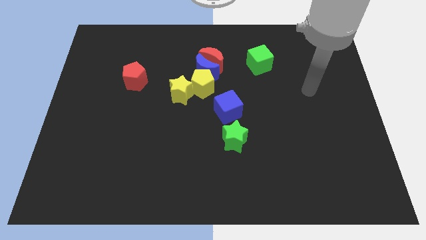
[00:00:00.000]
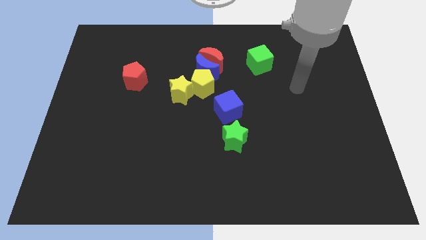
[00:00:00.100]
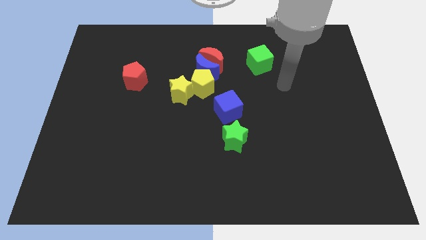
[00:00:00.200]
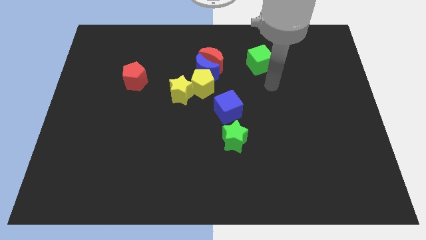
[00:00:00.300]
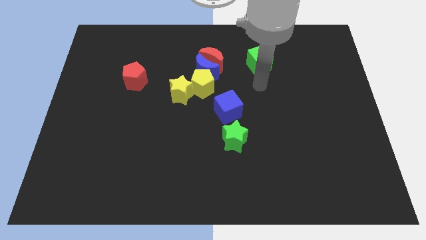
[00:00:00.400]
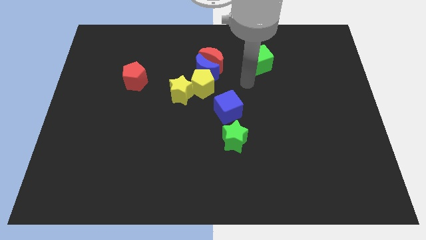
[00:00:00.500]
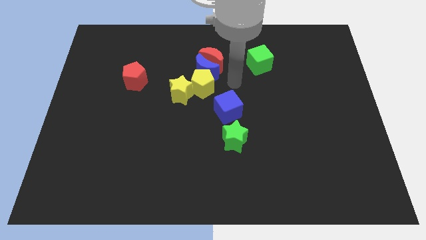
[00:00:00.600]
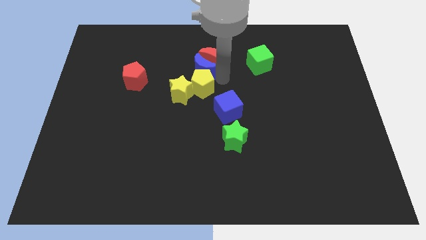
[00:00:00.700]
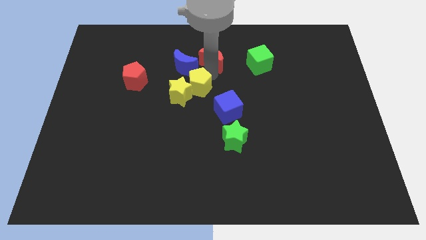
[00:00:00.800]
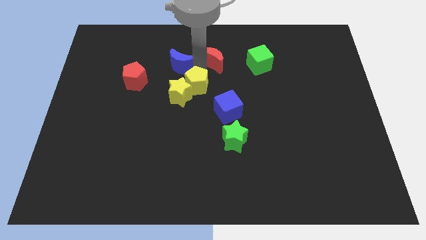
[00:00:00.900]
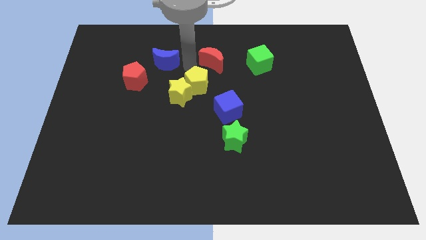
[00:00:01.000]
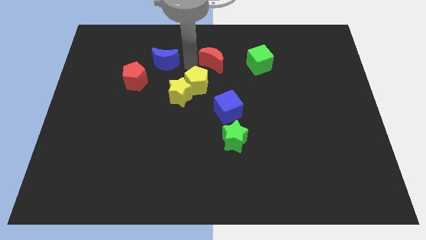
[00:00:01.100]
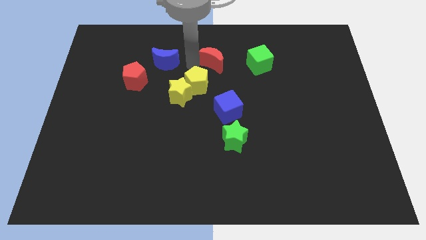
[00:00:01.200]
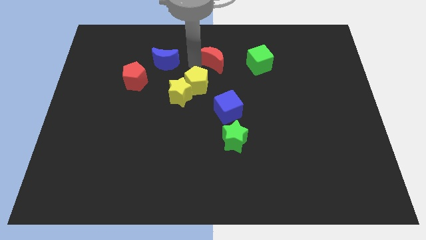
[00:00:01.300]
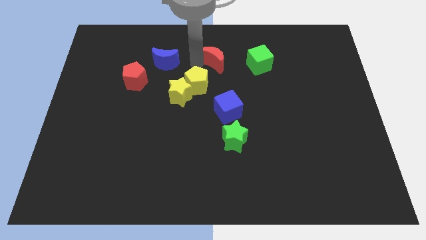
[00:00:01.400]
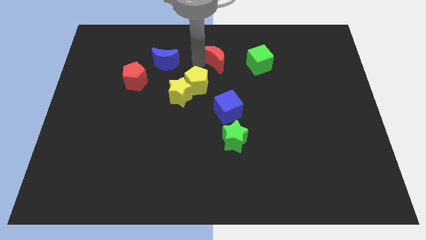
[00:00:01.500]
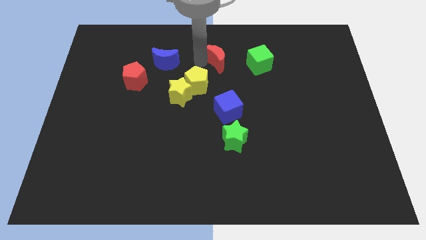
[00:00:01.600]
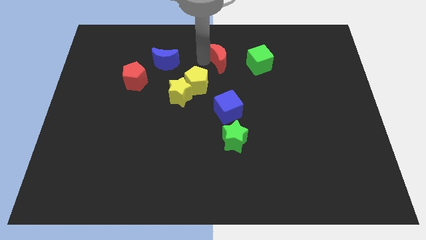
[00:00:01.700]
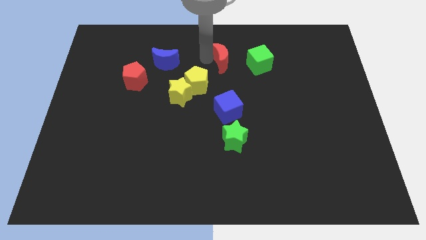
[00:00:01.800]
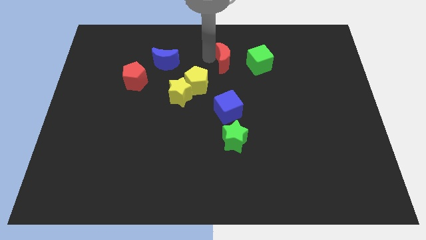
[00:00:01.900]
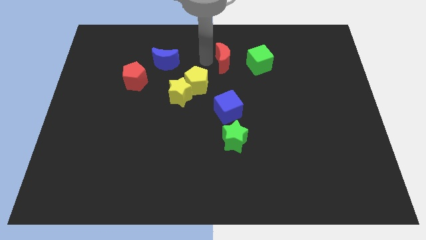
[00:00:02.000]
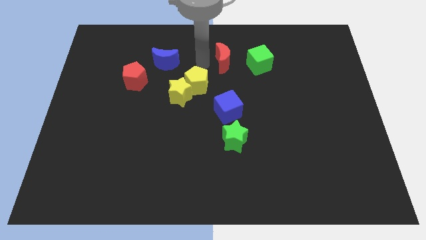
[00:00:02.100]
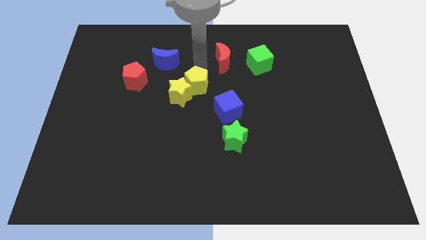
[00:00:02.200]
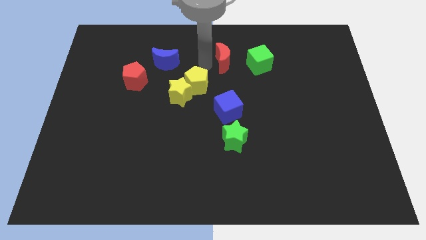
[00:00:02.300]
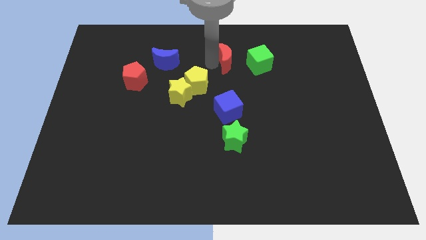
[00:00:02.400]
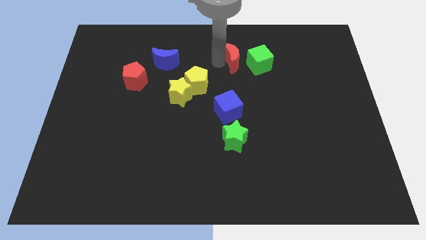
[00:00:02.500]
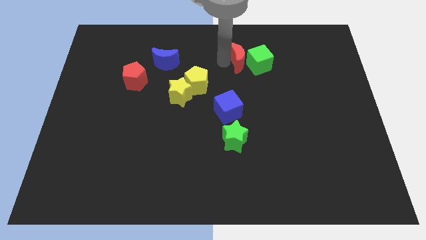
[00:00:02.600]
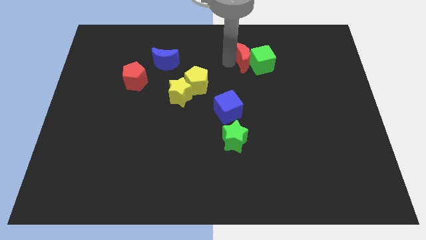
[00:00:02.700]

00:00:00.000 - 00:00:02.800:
slightly push the red moon right

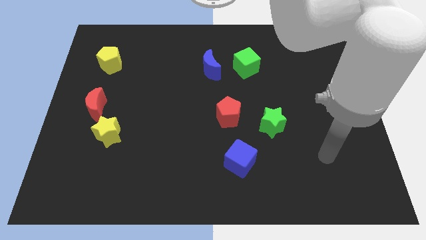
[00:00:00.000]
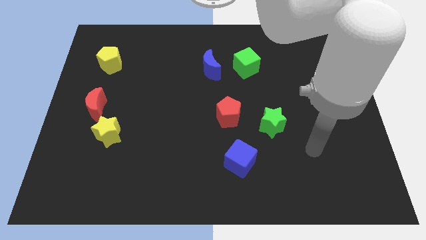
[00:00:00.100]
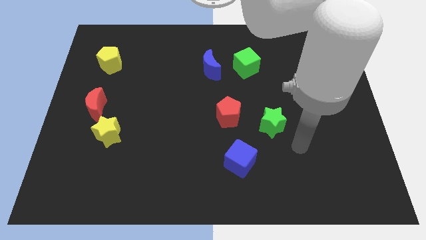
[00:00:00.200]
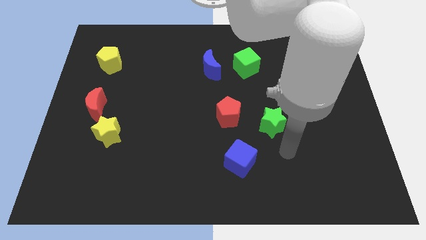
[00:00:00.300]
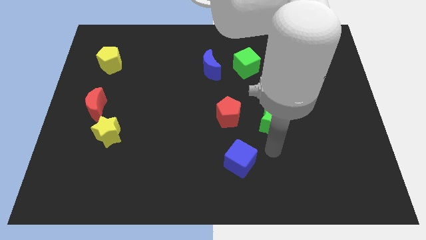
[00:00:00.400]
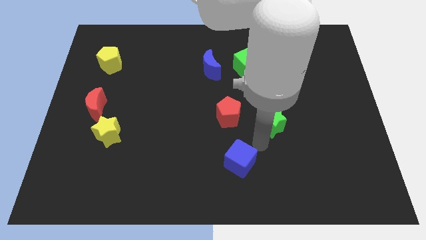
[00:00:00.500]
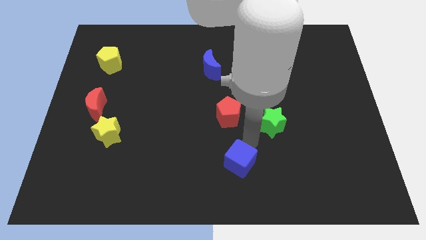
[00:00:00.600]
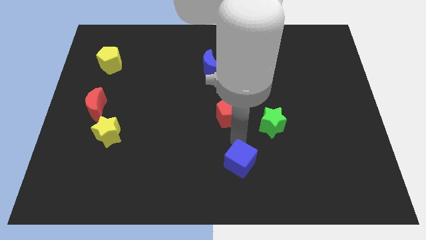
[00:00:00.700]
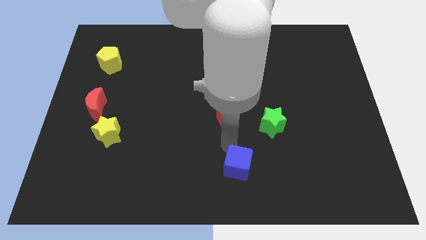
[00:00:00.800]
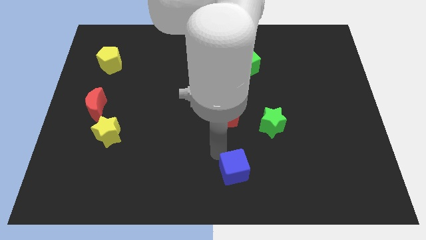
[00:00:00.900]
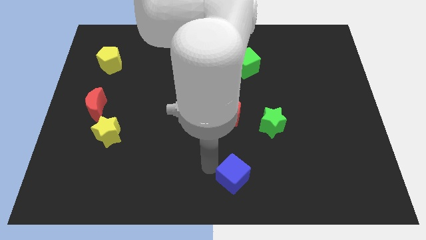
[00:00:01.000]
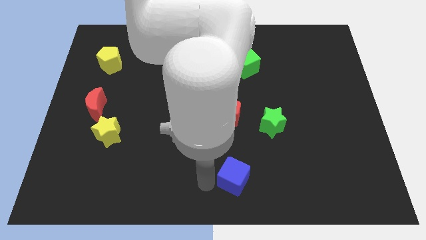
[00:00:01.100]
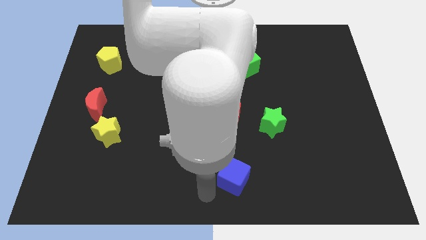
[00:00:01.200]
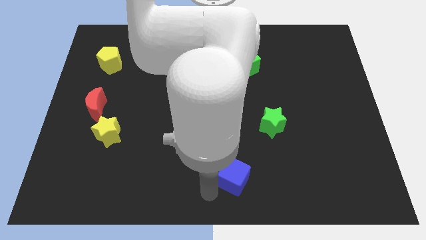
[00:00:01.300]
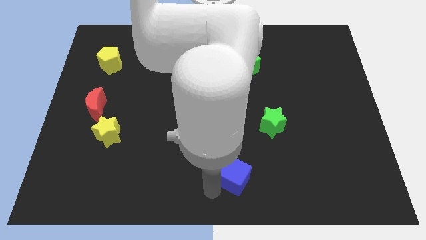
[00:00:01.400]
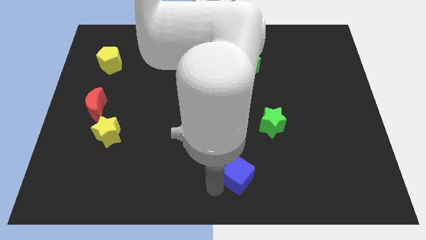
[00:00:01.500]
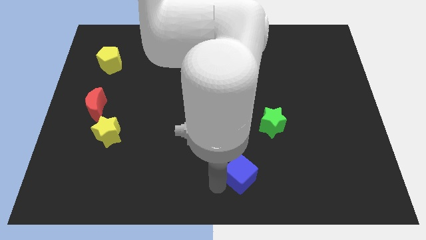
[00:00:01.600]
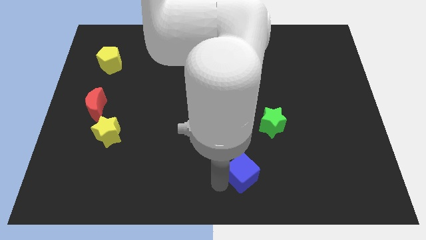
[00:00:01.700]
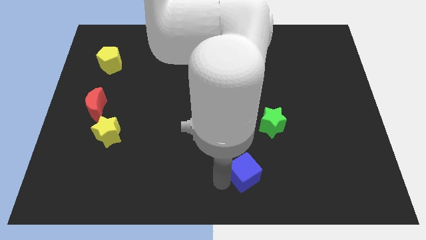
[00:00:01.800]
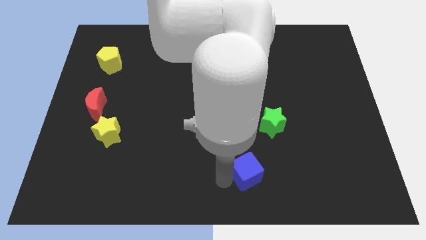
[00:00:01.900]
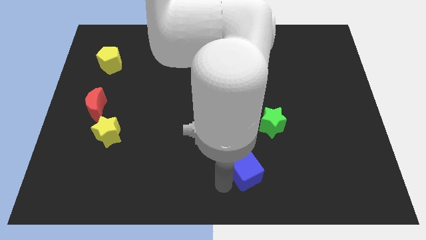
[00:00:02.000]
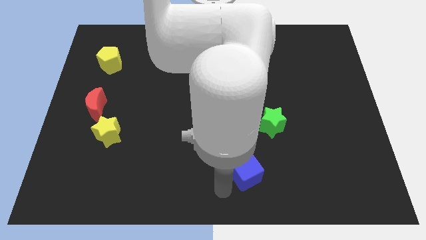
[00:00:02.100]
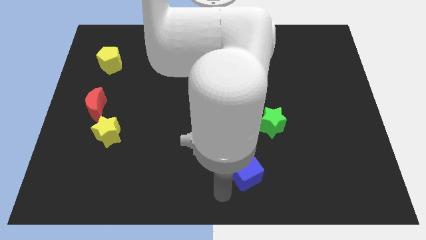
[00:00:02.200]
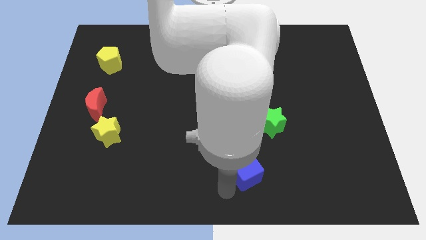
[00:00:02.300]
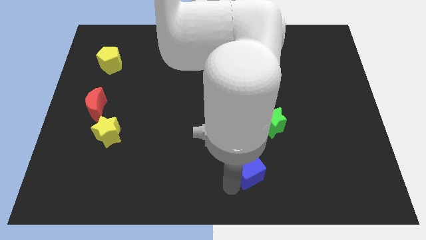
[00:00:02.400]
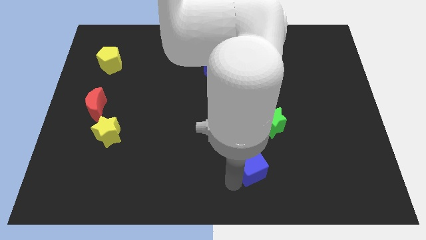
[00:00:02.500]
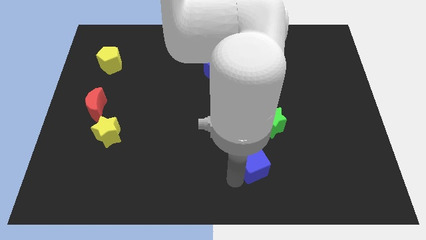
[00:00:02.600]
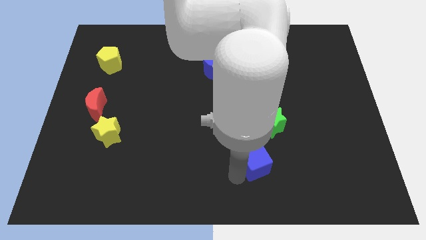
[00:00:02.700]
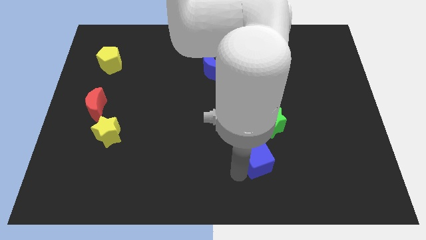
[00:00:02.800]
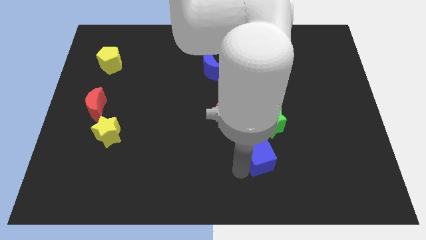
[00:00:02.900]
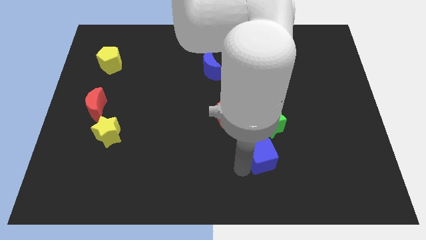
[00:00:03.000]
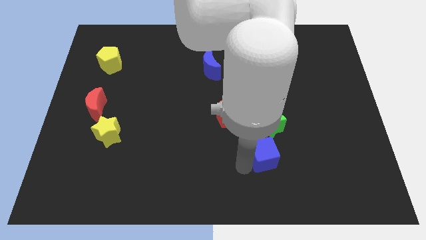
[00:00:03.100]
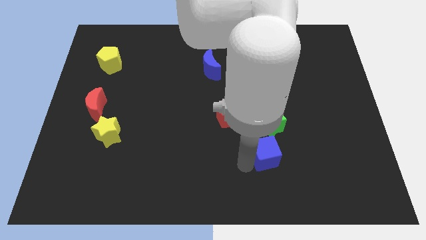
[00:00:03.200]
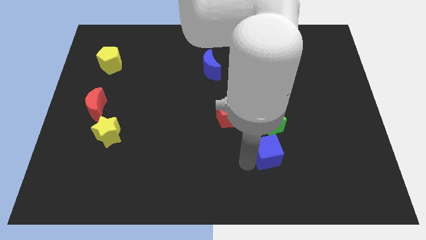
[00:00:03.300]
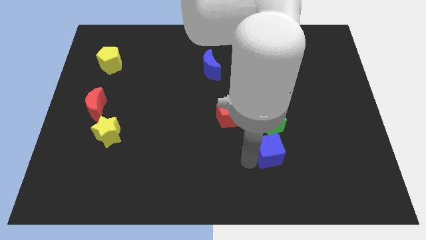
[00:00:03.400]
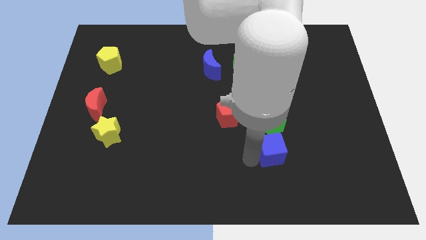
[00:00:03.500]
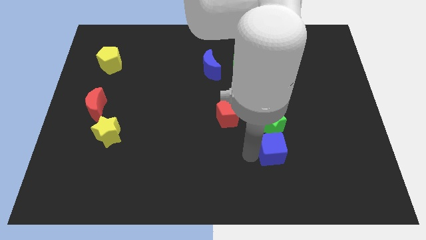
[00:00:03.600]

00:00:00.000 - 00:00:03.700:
move the blue cube to the right a bit

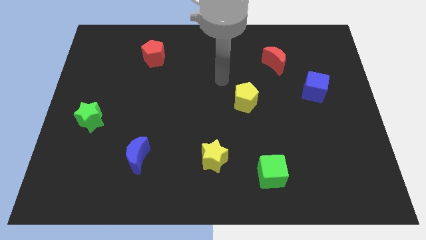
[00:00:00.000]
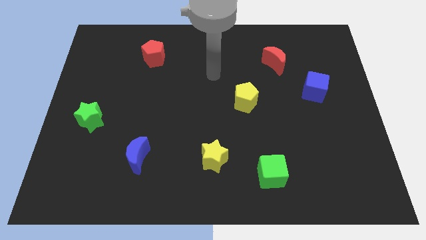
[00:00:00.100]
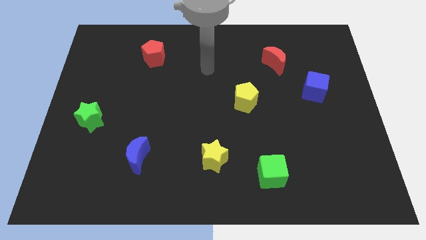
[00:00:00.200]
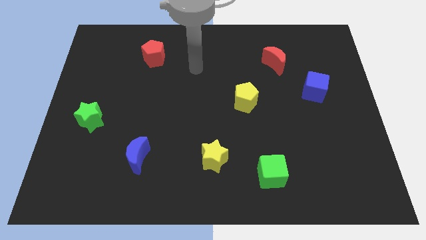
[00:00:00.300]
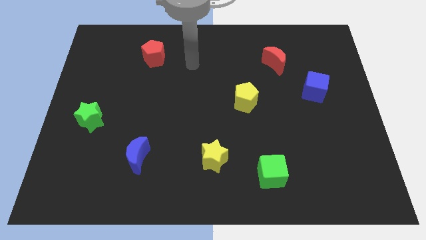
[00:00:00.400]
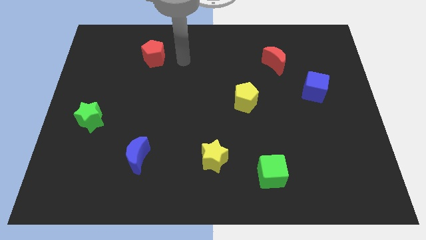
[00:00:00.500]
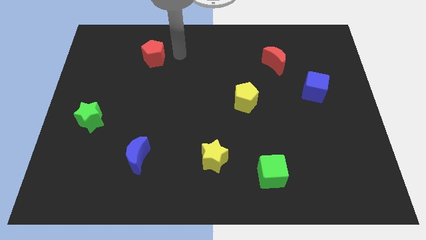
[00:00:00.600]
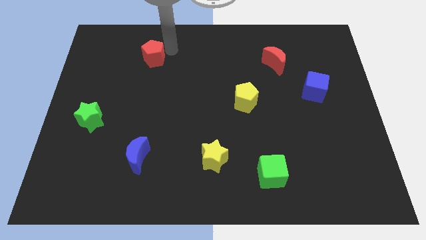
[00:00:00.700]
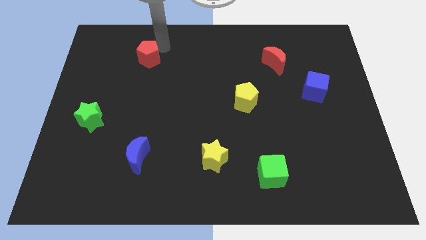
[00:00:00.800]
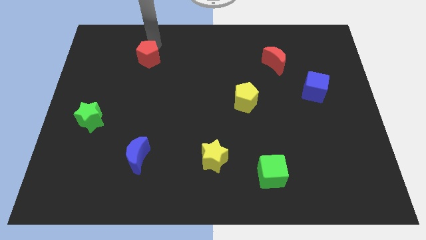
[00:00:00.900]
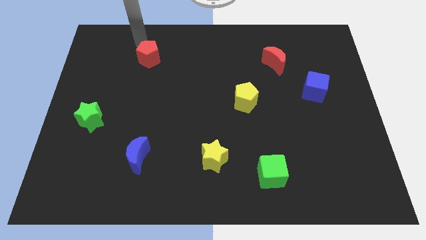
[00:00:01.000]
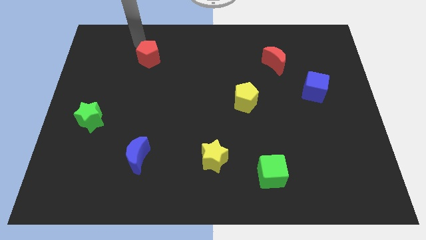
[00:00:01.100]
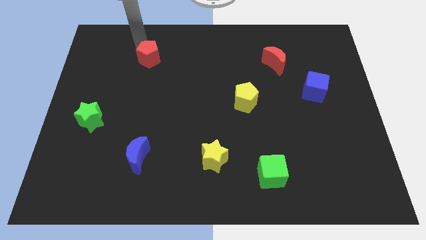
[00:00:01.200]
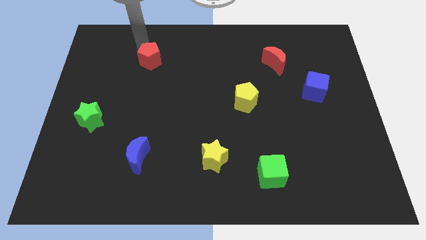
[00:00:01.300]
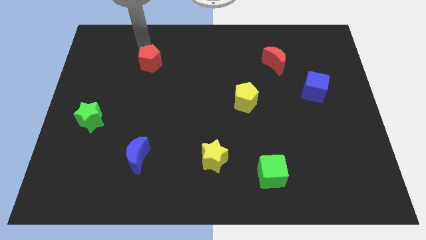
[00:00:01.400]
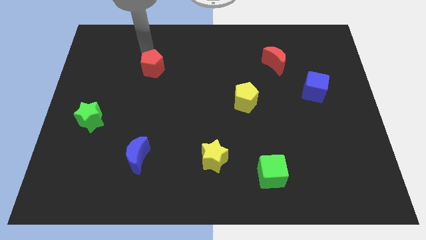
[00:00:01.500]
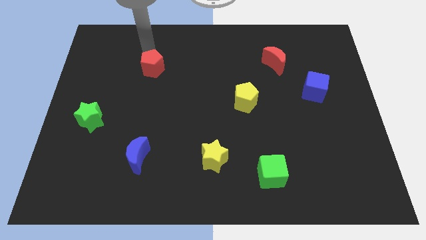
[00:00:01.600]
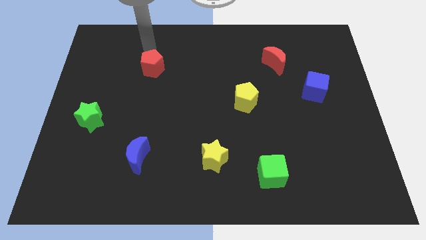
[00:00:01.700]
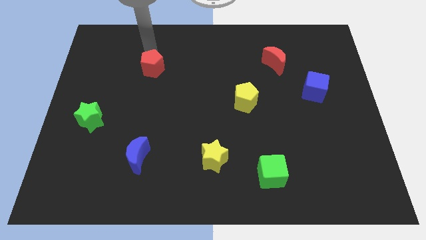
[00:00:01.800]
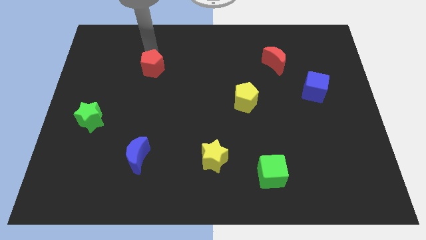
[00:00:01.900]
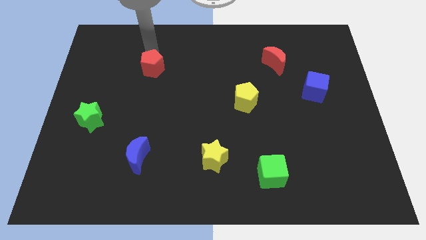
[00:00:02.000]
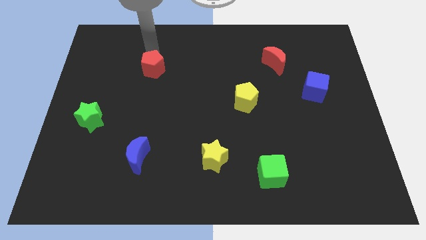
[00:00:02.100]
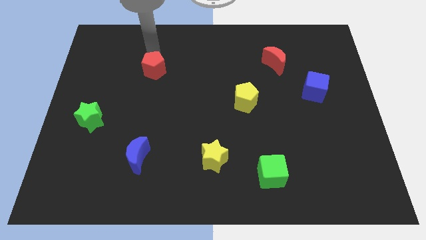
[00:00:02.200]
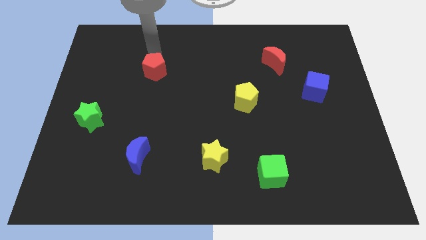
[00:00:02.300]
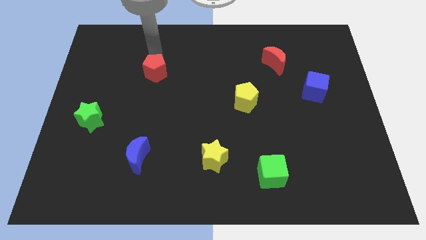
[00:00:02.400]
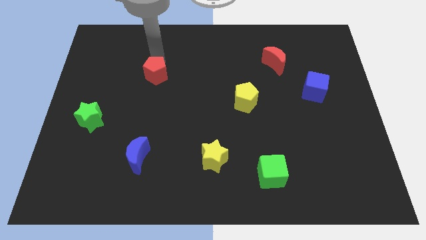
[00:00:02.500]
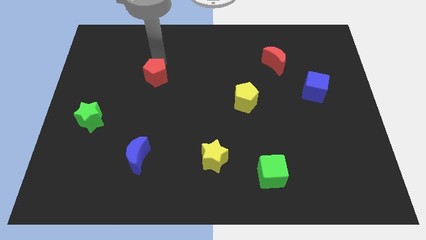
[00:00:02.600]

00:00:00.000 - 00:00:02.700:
slide the red pentagon slightly down
